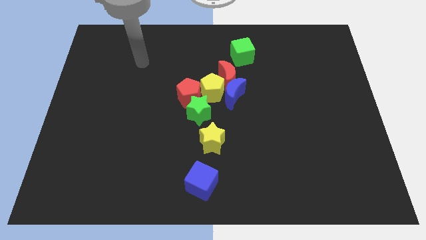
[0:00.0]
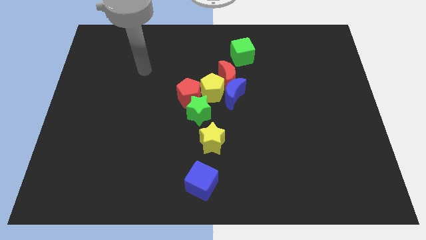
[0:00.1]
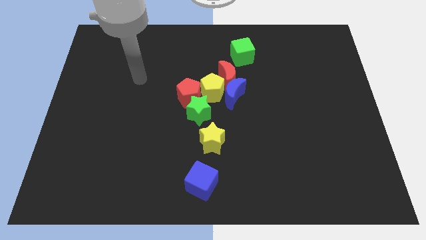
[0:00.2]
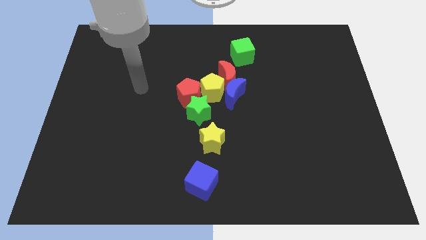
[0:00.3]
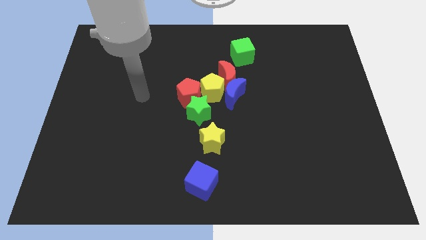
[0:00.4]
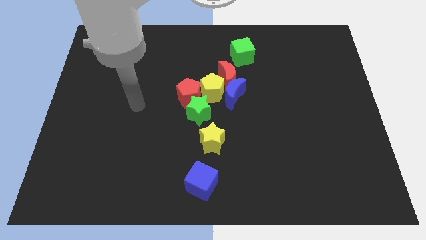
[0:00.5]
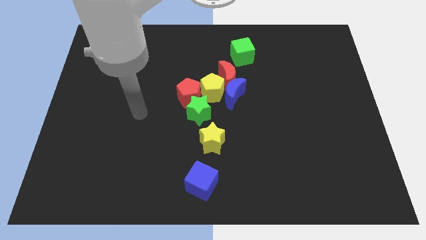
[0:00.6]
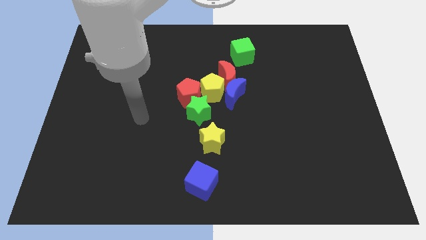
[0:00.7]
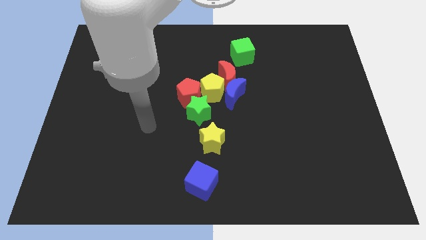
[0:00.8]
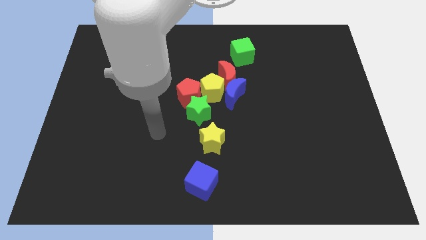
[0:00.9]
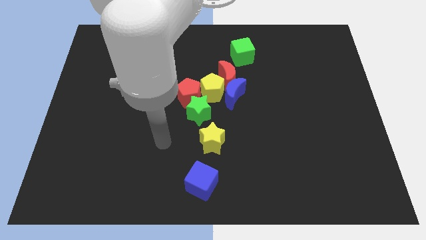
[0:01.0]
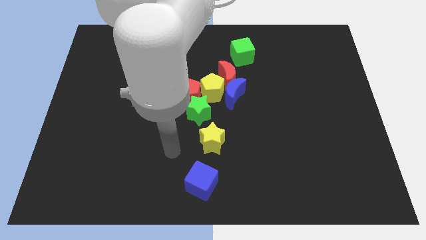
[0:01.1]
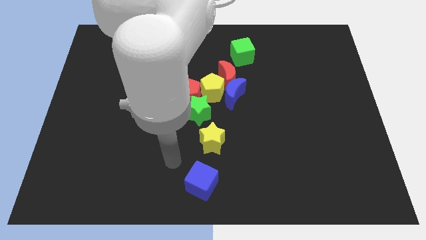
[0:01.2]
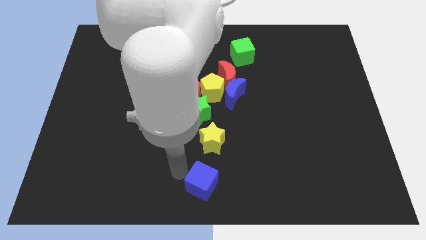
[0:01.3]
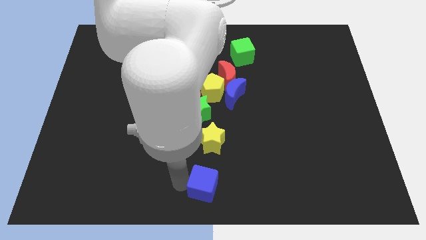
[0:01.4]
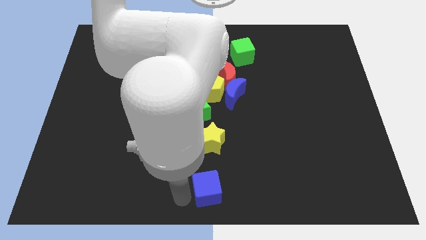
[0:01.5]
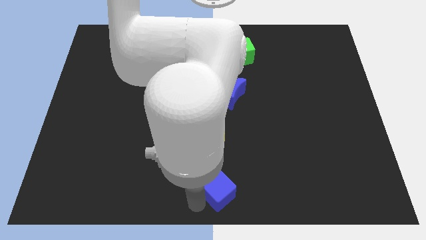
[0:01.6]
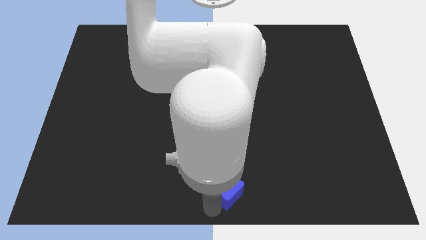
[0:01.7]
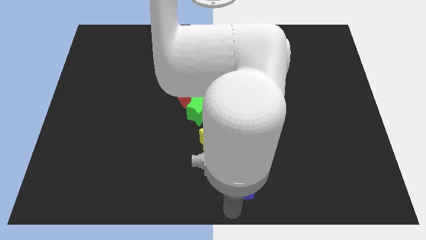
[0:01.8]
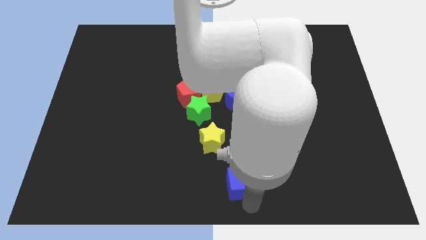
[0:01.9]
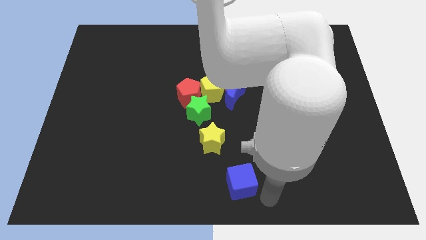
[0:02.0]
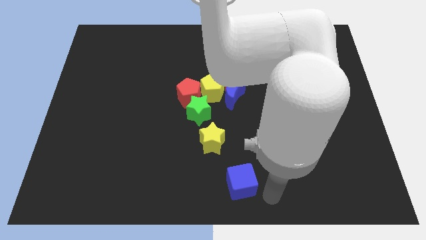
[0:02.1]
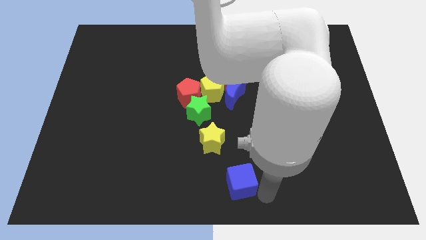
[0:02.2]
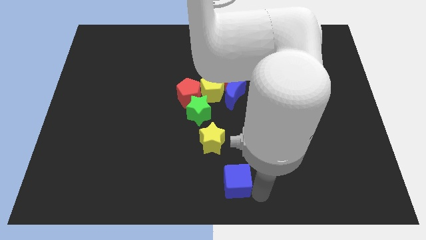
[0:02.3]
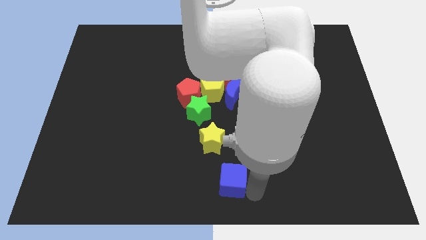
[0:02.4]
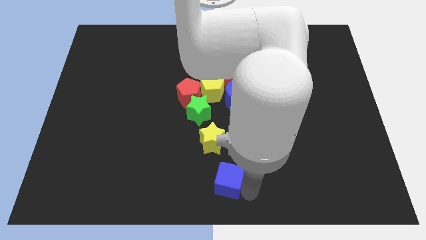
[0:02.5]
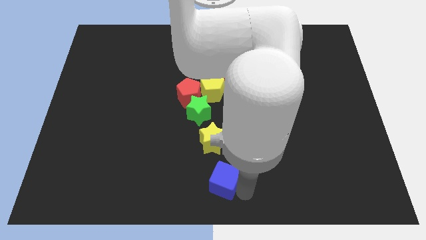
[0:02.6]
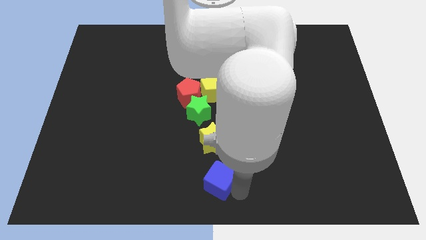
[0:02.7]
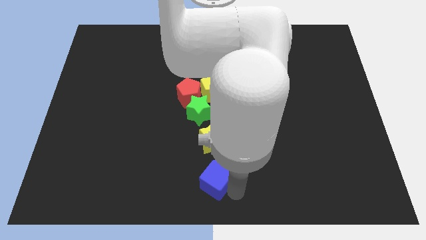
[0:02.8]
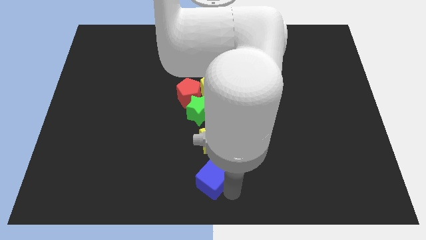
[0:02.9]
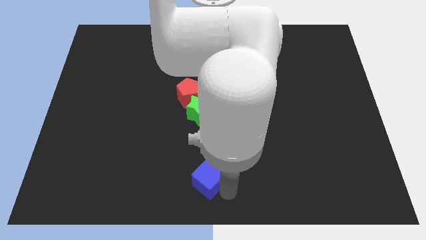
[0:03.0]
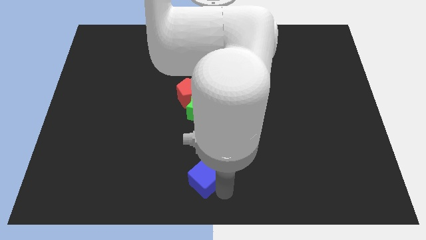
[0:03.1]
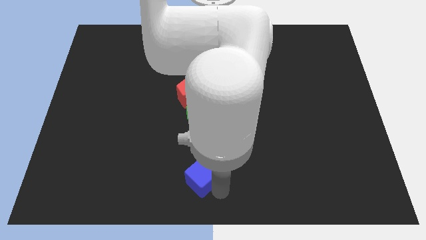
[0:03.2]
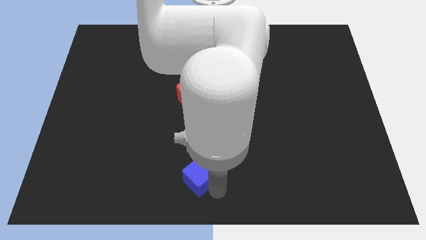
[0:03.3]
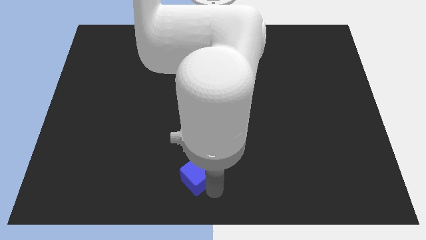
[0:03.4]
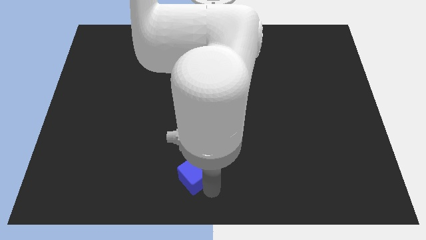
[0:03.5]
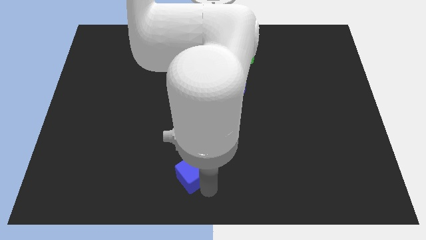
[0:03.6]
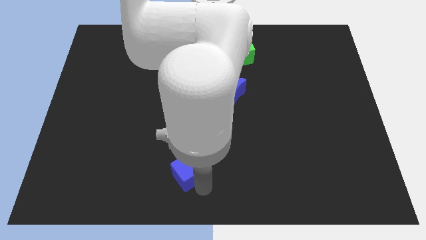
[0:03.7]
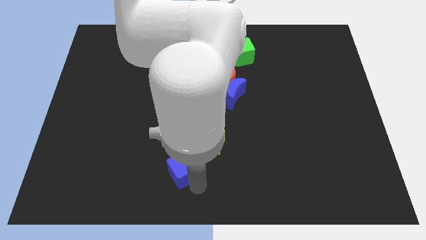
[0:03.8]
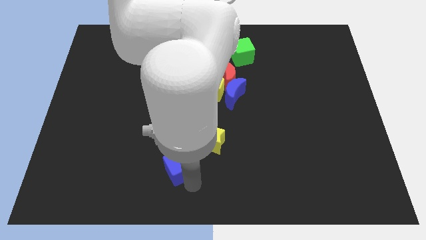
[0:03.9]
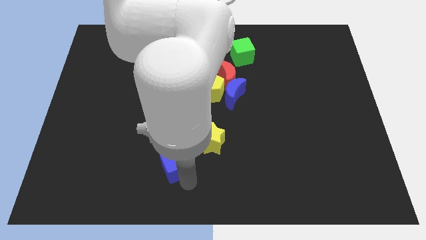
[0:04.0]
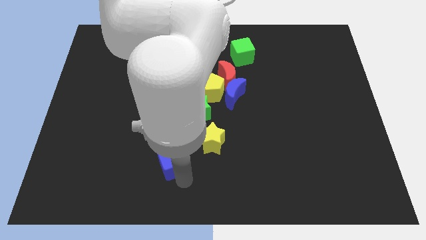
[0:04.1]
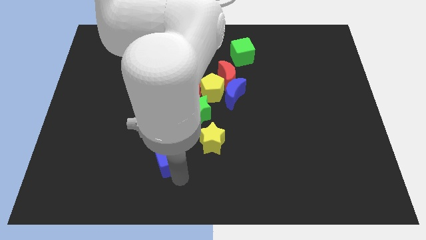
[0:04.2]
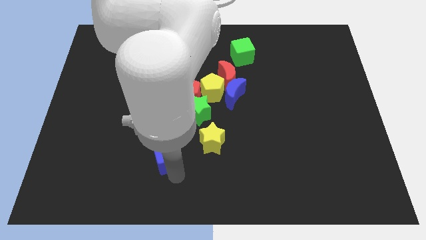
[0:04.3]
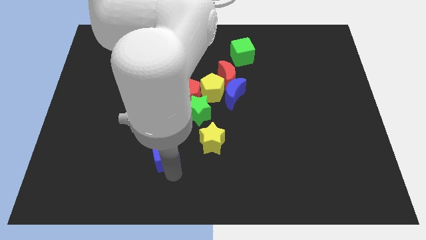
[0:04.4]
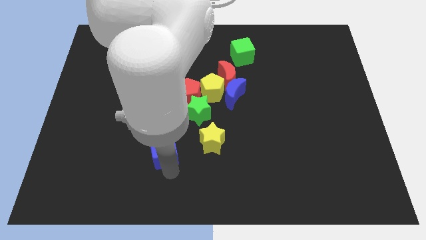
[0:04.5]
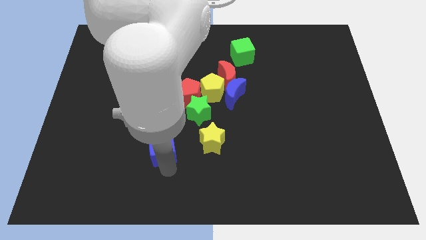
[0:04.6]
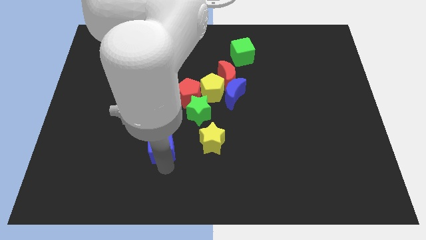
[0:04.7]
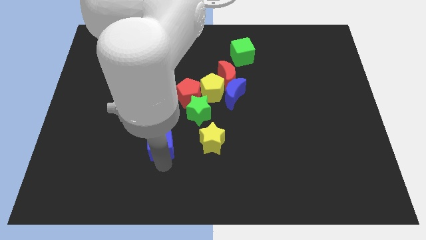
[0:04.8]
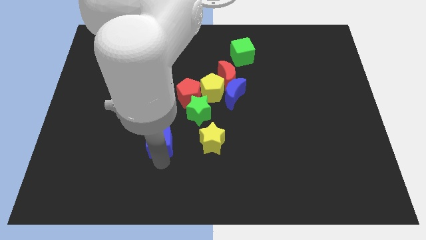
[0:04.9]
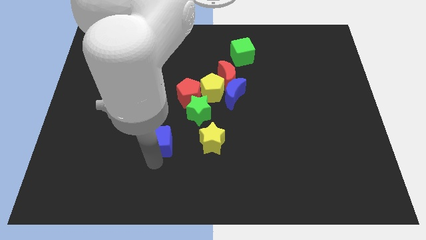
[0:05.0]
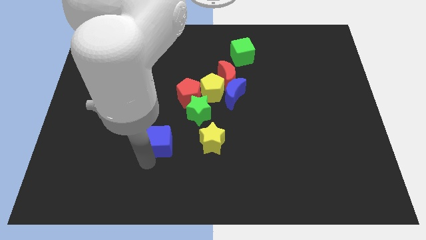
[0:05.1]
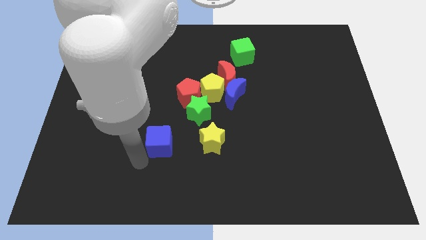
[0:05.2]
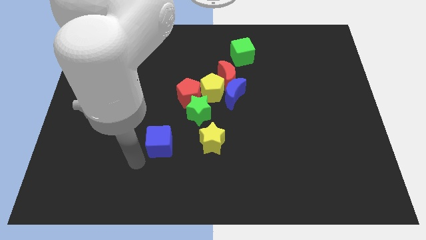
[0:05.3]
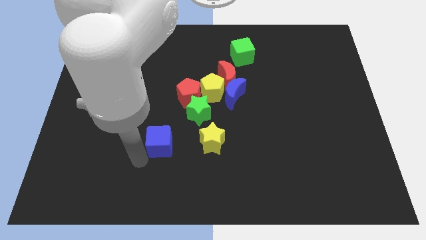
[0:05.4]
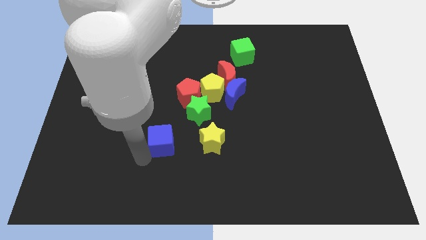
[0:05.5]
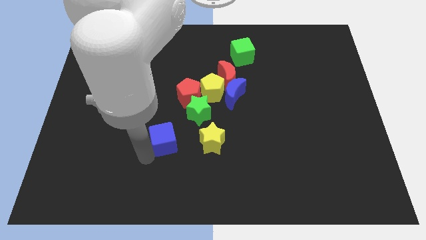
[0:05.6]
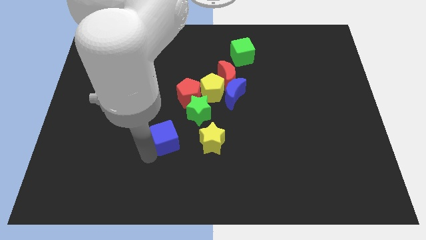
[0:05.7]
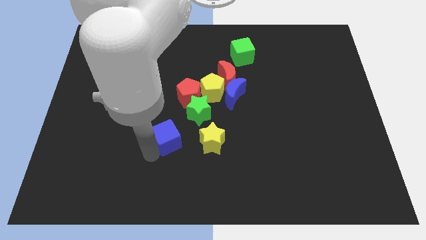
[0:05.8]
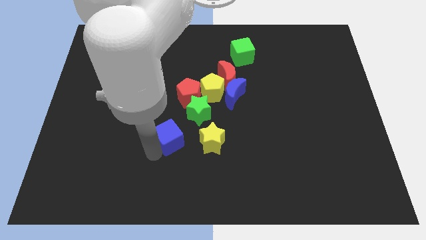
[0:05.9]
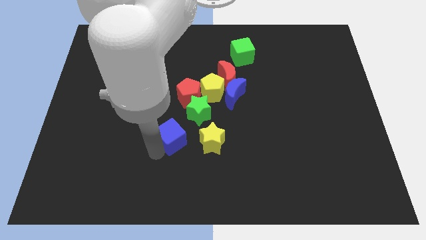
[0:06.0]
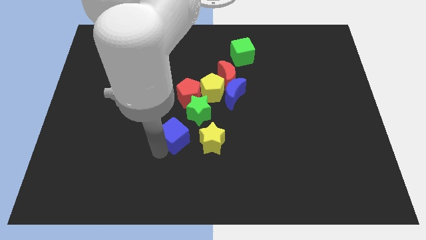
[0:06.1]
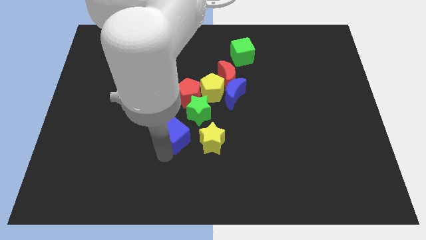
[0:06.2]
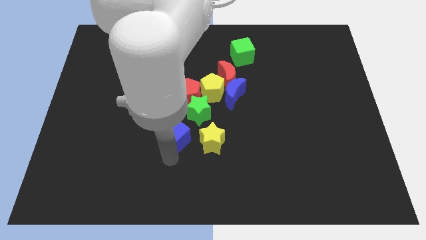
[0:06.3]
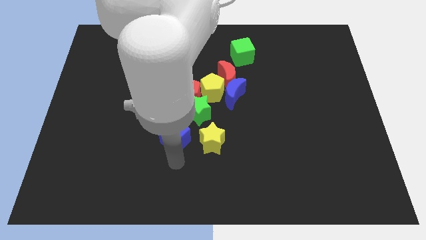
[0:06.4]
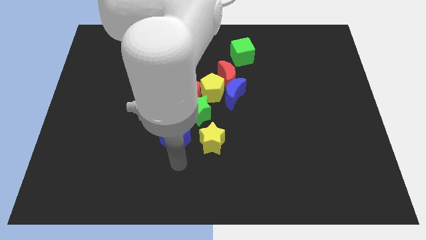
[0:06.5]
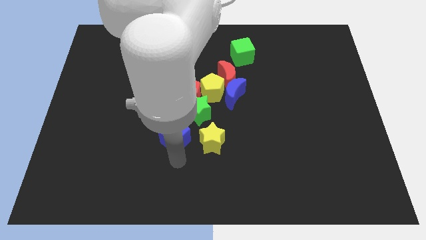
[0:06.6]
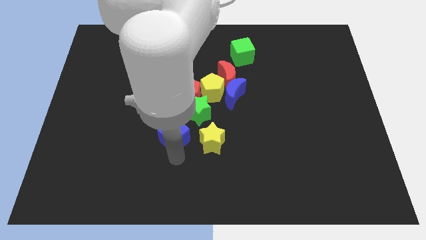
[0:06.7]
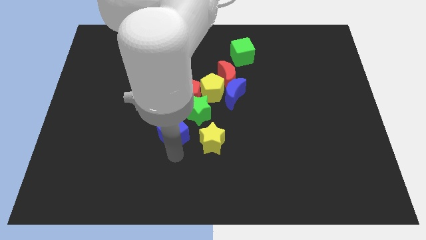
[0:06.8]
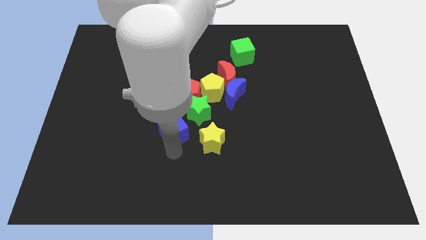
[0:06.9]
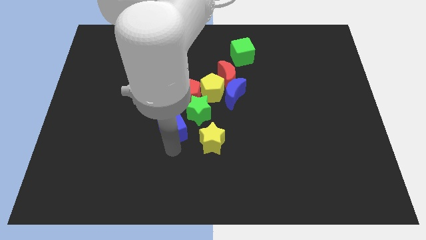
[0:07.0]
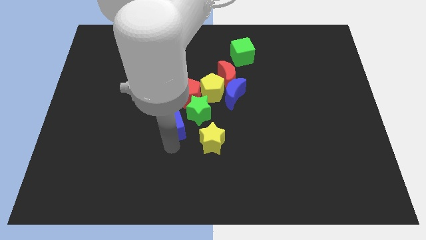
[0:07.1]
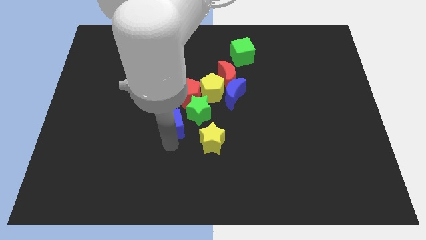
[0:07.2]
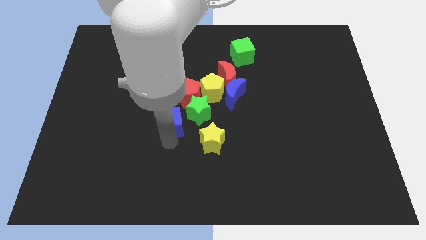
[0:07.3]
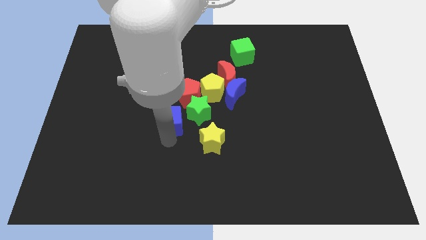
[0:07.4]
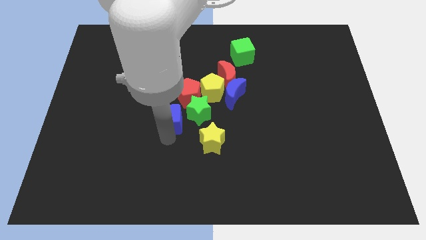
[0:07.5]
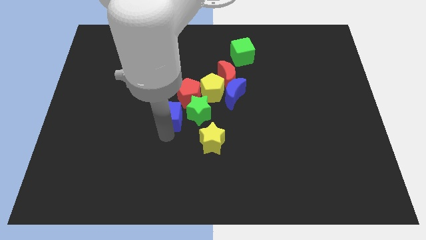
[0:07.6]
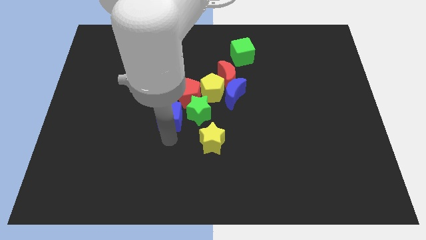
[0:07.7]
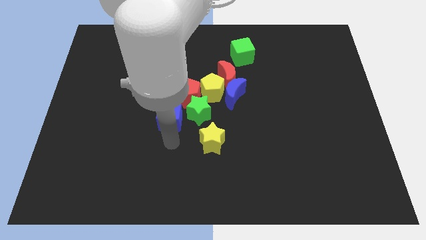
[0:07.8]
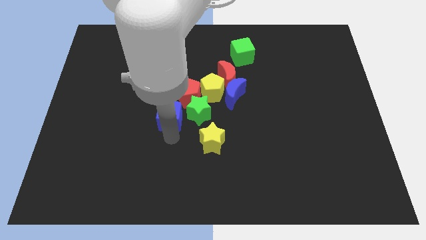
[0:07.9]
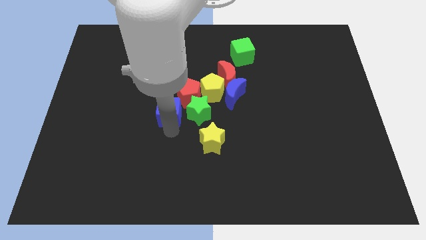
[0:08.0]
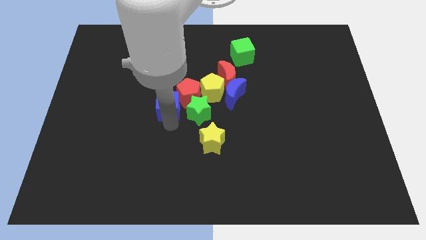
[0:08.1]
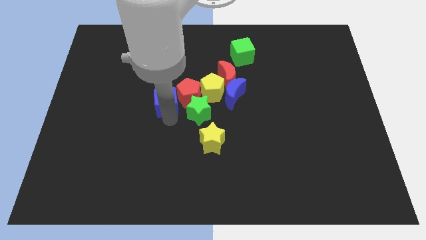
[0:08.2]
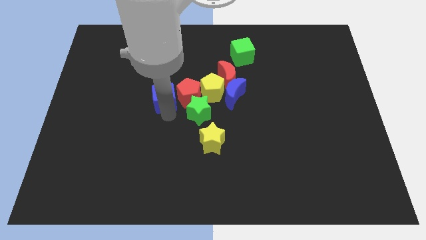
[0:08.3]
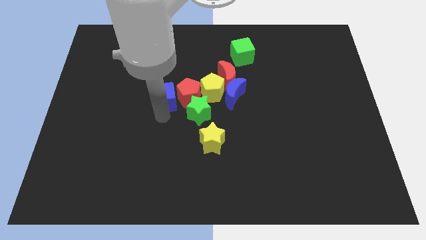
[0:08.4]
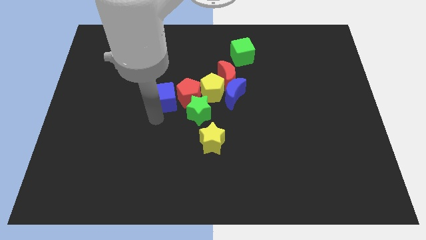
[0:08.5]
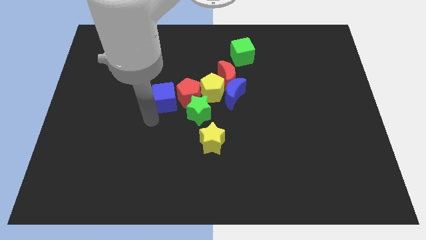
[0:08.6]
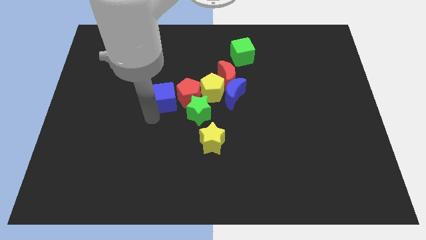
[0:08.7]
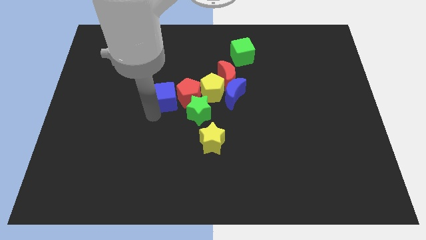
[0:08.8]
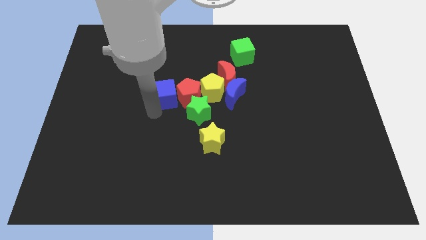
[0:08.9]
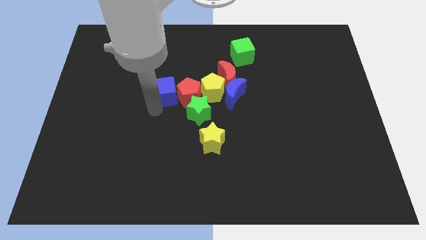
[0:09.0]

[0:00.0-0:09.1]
move the blue cube up
